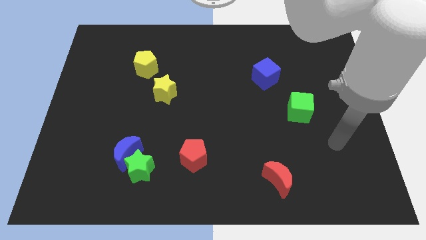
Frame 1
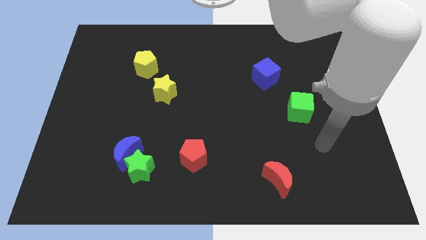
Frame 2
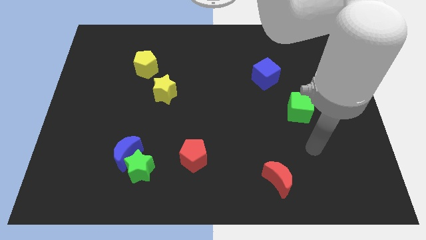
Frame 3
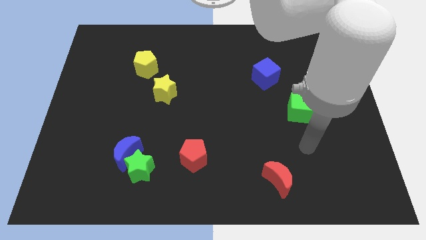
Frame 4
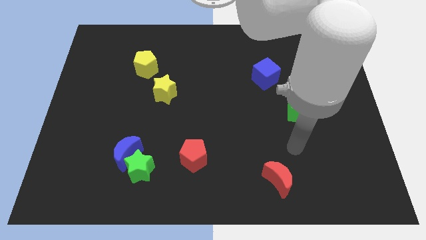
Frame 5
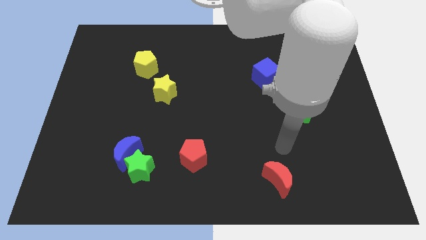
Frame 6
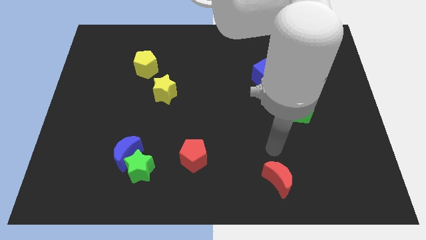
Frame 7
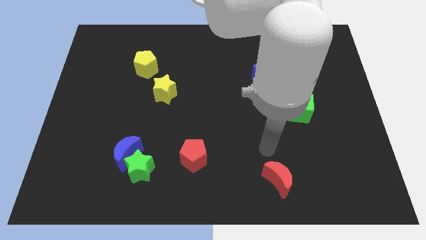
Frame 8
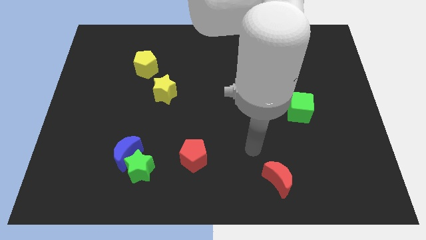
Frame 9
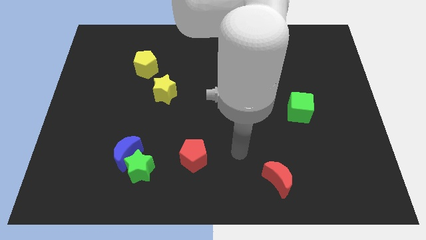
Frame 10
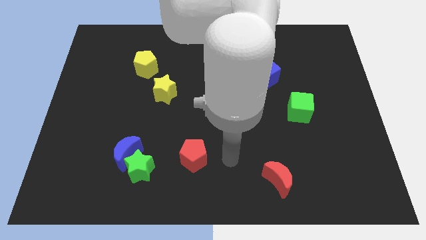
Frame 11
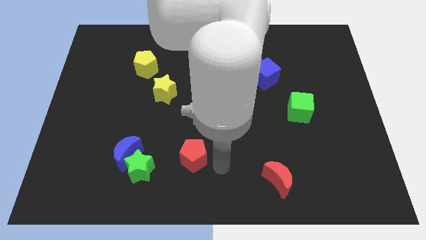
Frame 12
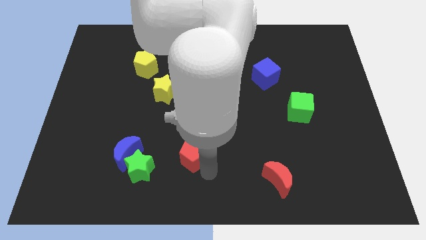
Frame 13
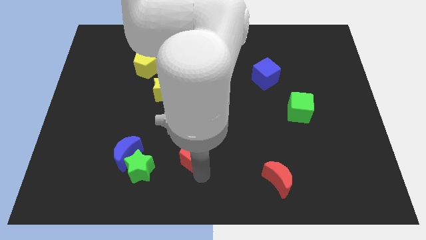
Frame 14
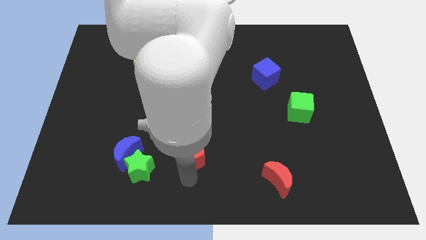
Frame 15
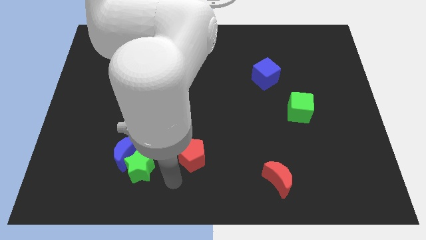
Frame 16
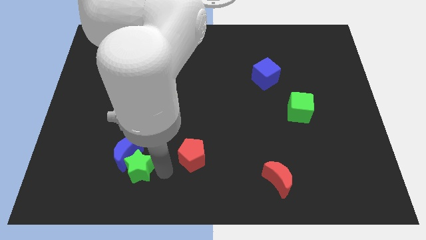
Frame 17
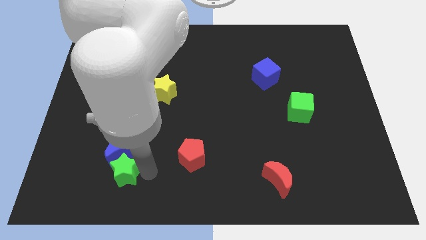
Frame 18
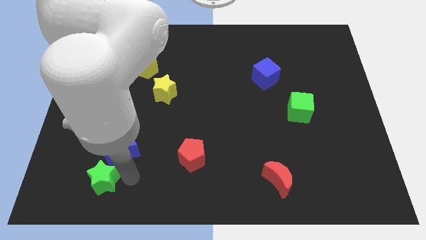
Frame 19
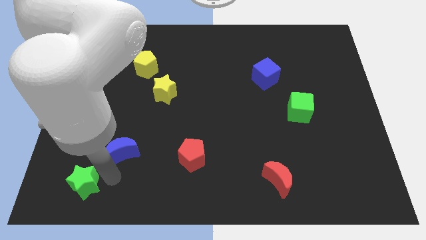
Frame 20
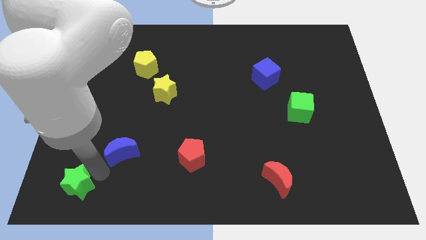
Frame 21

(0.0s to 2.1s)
move the blue moon away from the green star

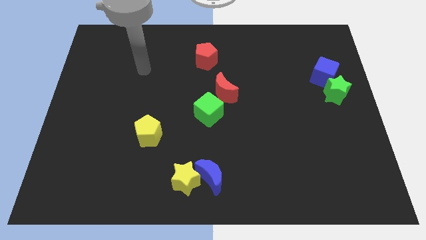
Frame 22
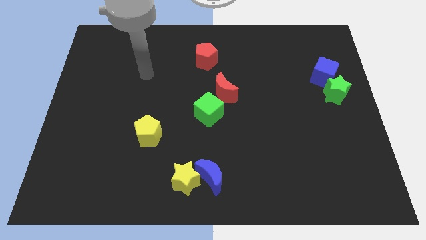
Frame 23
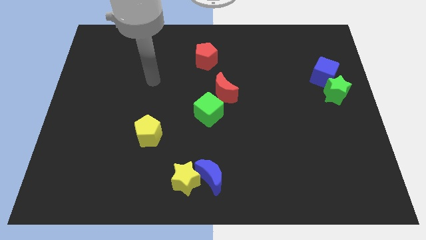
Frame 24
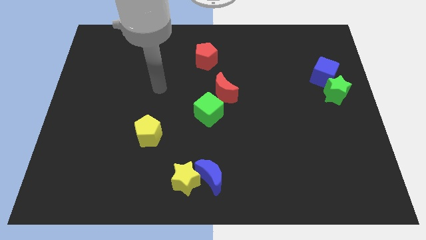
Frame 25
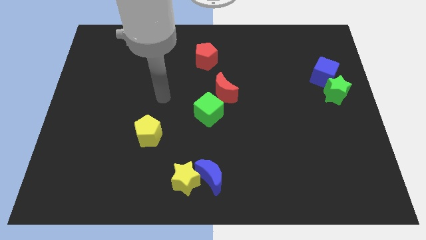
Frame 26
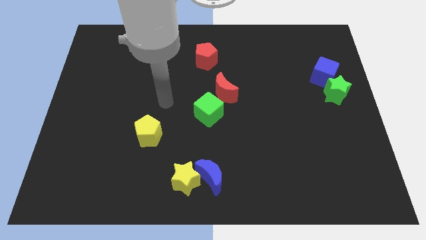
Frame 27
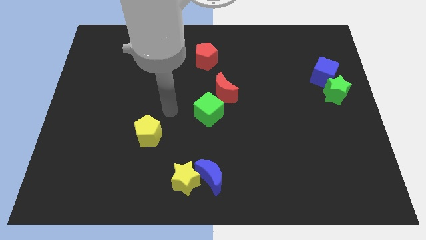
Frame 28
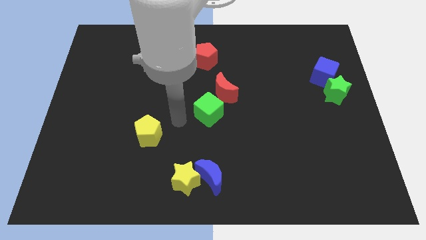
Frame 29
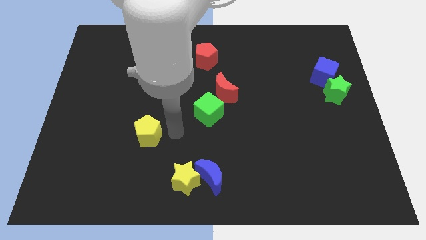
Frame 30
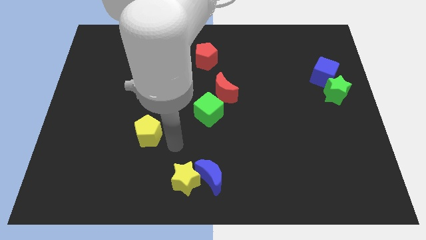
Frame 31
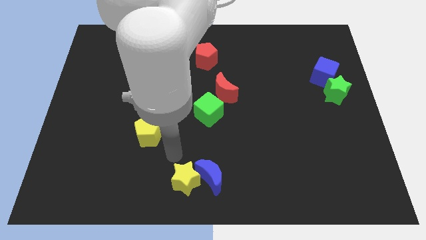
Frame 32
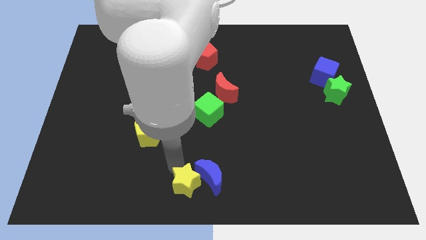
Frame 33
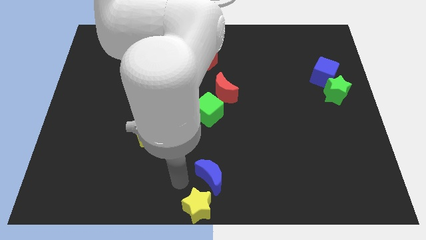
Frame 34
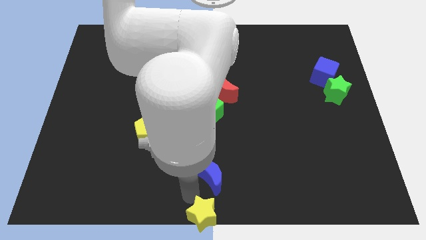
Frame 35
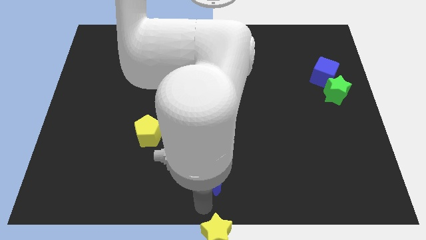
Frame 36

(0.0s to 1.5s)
move the blue moon away from the yellow star

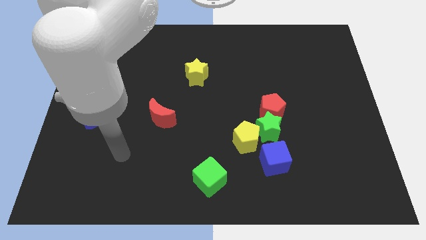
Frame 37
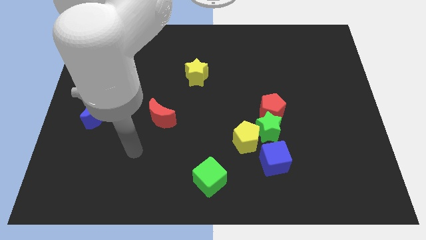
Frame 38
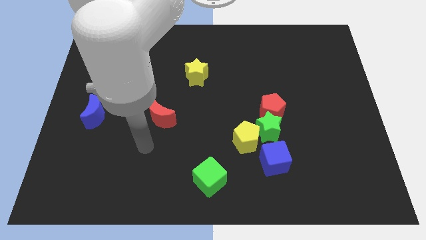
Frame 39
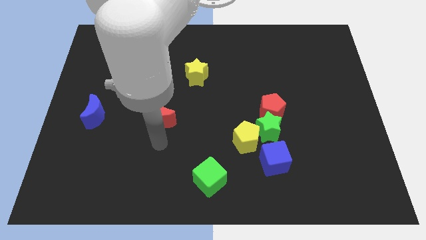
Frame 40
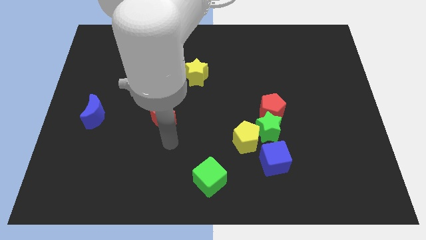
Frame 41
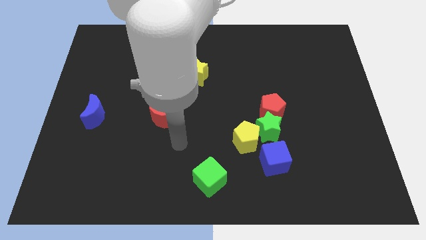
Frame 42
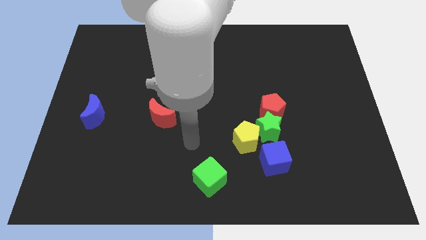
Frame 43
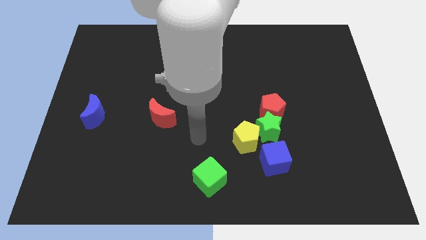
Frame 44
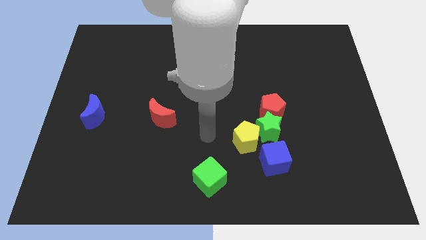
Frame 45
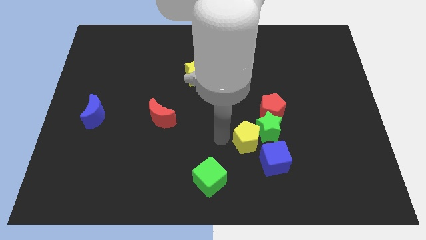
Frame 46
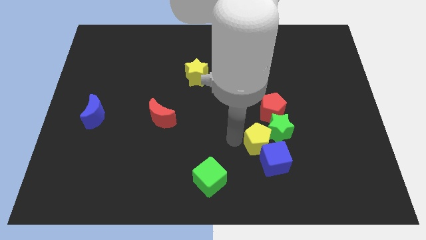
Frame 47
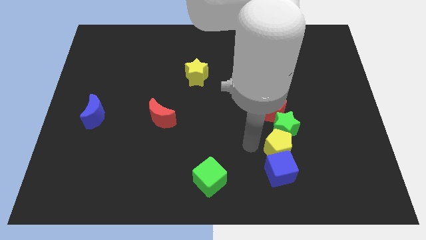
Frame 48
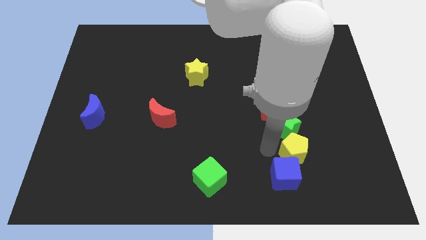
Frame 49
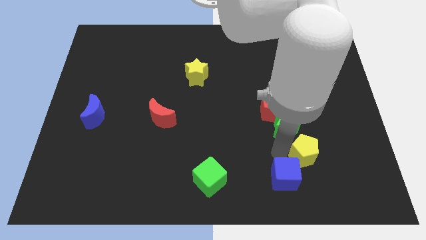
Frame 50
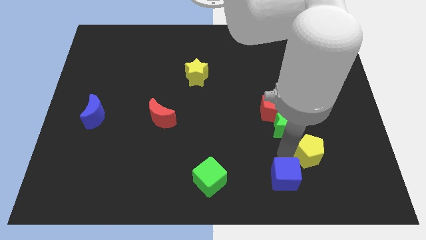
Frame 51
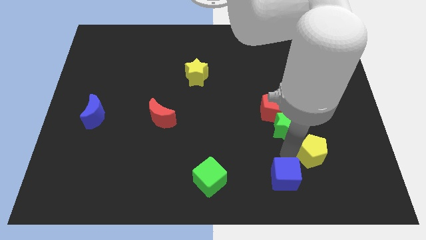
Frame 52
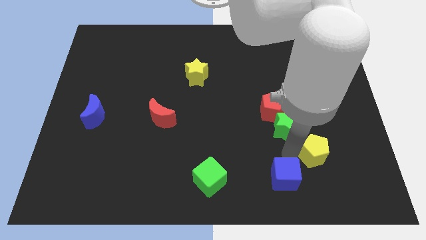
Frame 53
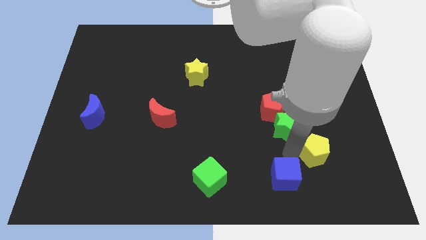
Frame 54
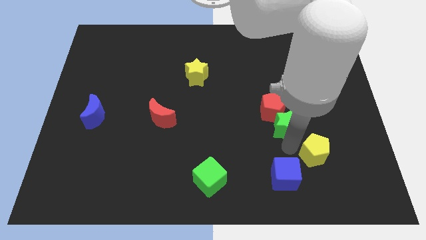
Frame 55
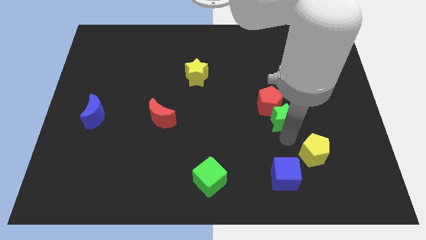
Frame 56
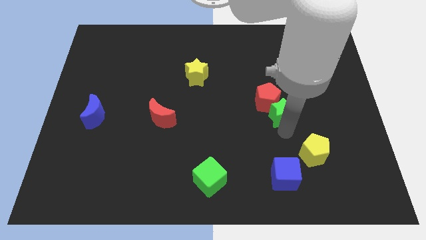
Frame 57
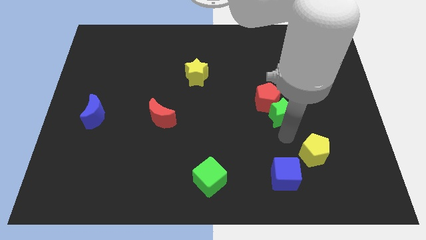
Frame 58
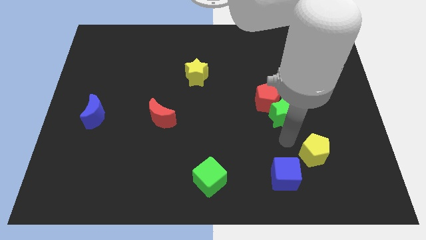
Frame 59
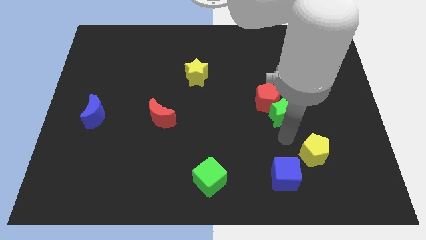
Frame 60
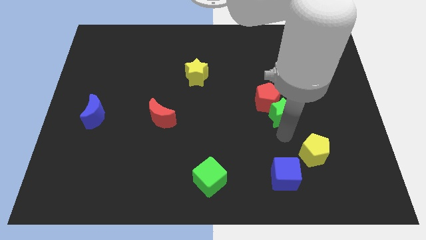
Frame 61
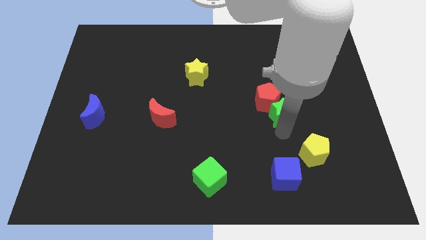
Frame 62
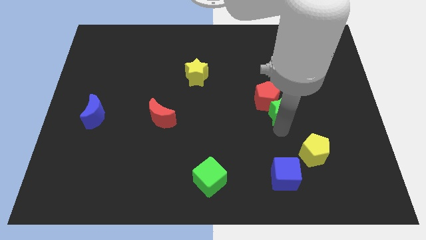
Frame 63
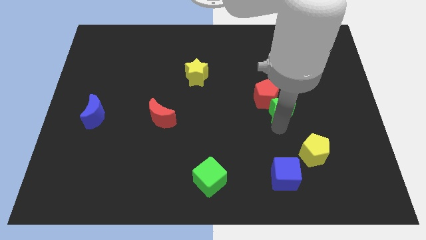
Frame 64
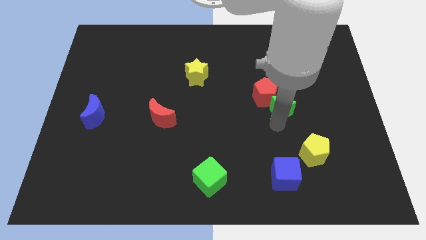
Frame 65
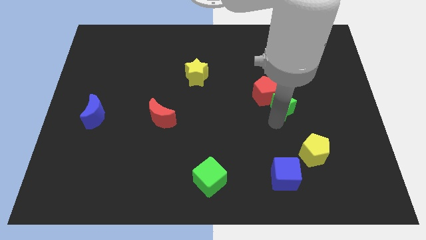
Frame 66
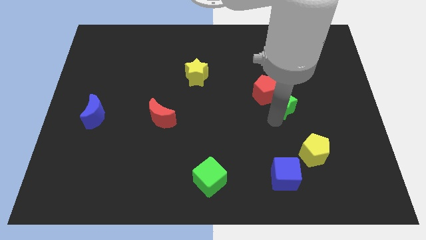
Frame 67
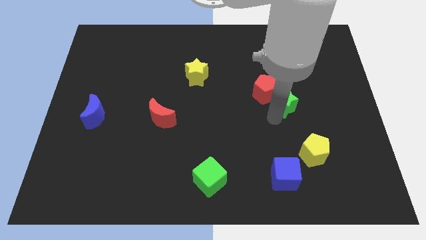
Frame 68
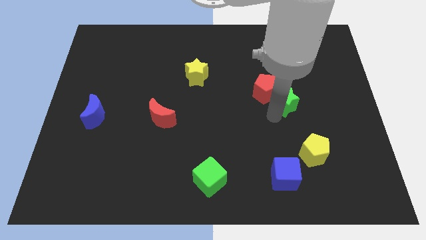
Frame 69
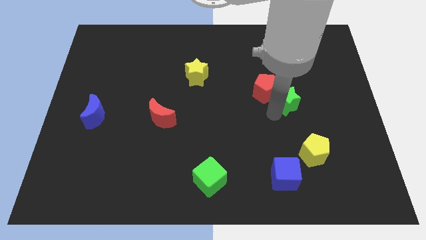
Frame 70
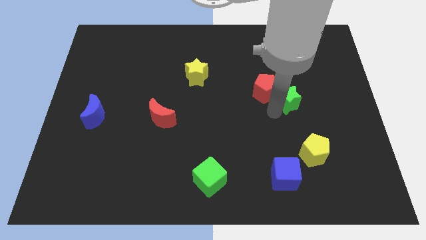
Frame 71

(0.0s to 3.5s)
separate the green star from the group

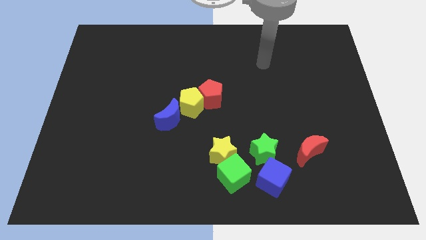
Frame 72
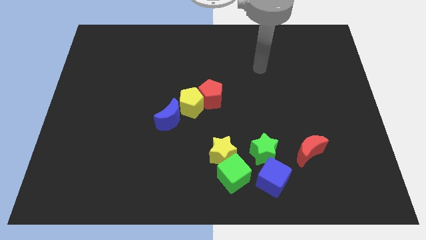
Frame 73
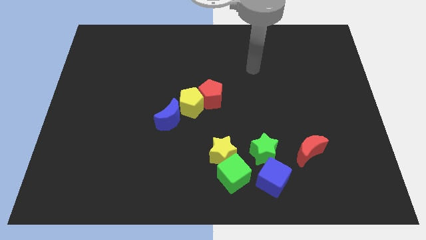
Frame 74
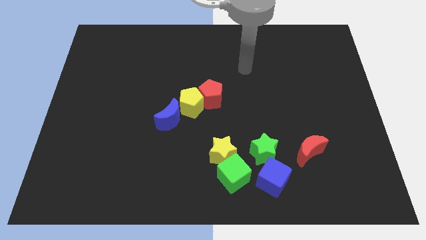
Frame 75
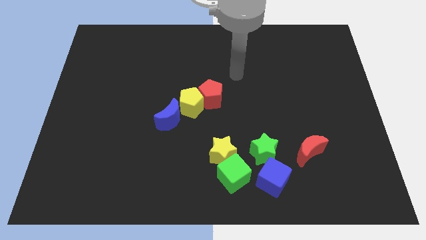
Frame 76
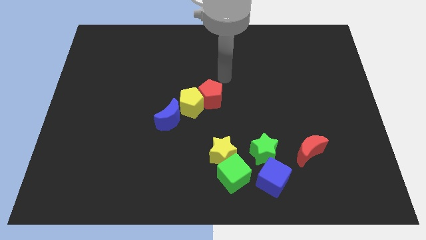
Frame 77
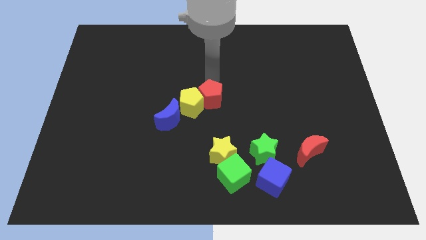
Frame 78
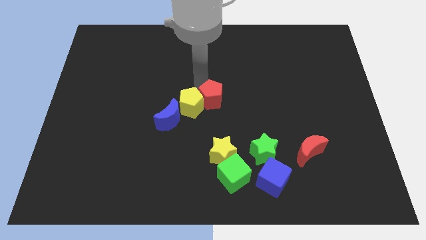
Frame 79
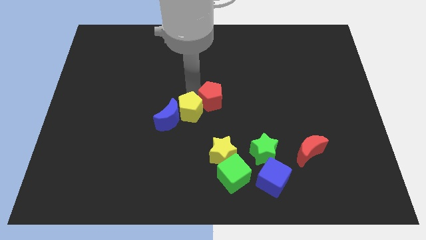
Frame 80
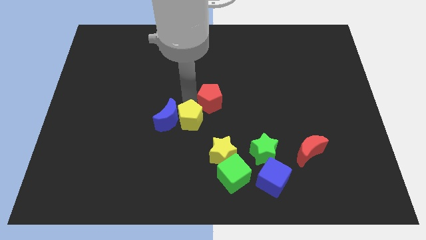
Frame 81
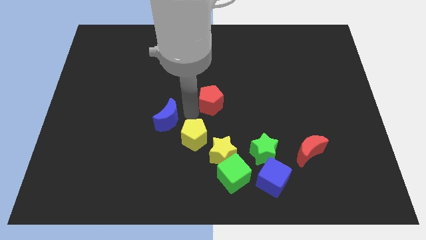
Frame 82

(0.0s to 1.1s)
move the red pentagon away from the yellow pentagon

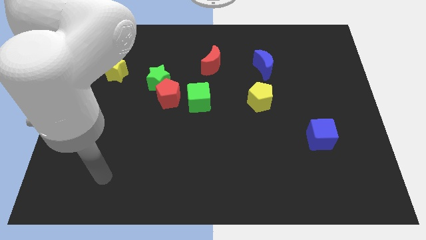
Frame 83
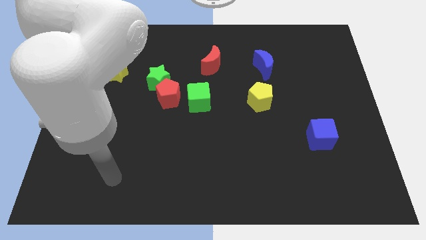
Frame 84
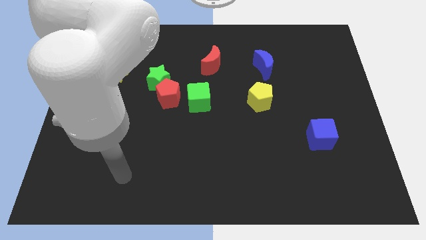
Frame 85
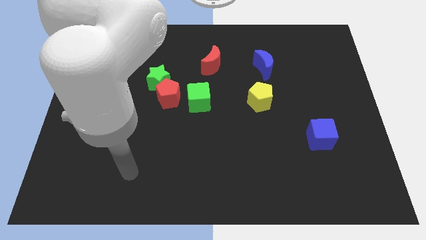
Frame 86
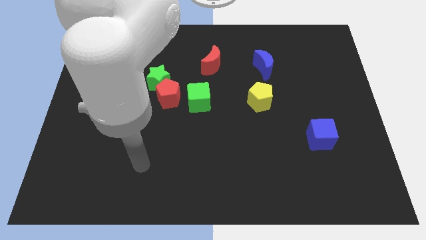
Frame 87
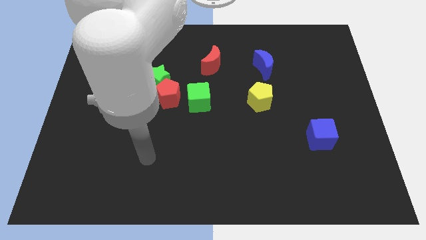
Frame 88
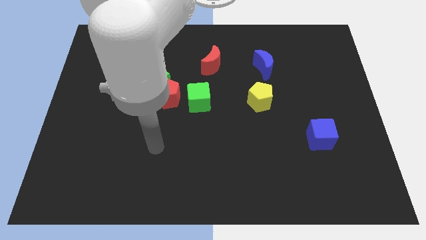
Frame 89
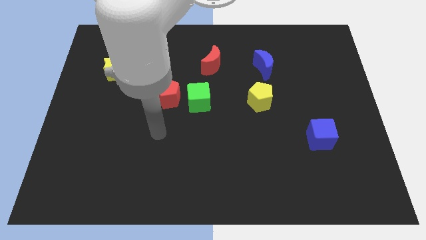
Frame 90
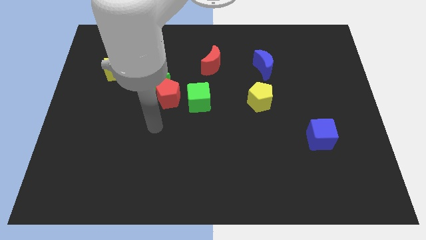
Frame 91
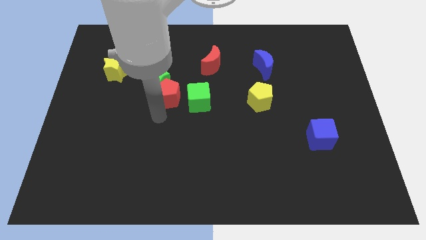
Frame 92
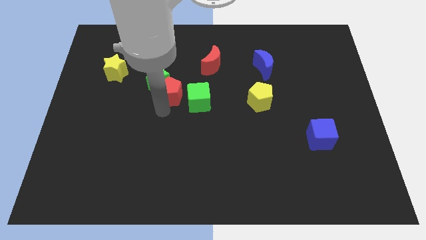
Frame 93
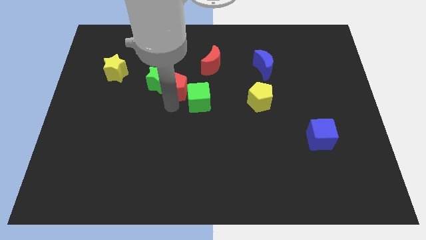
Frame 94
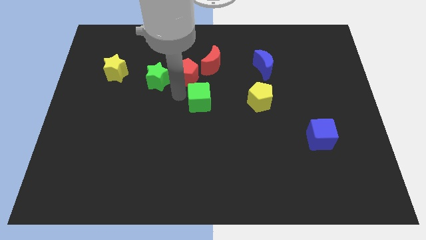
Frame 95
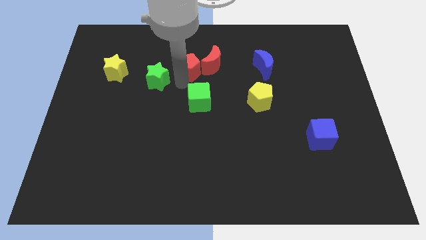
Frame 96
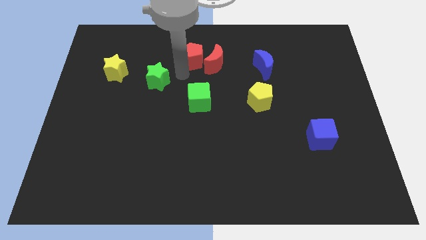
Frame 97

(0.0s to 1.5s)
separate the green star from the red pentagon
